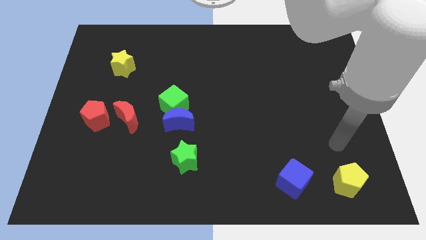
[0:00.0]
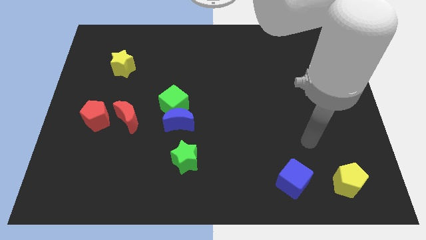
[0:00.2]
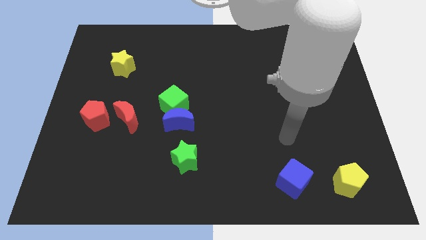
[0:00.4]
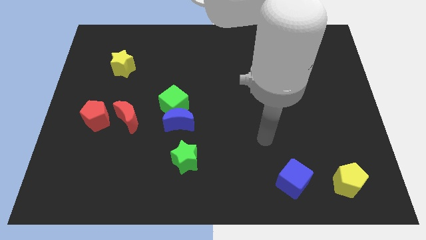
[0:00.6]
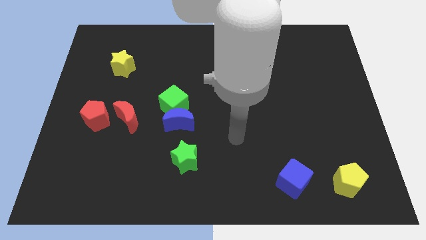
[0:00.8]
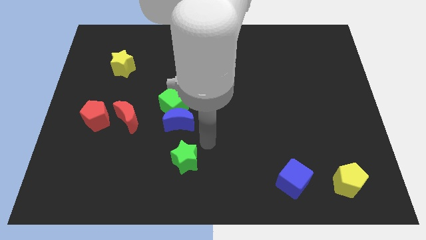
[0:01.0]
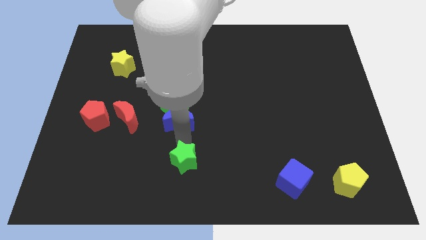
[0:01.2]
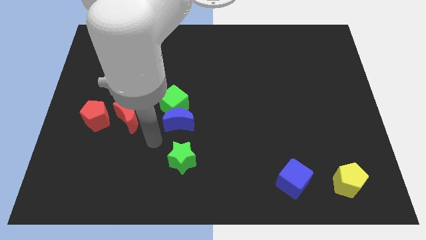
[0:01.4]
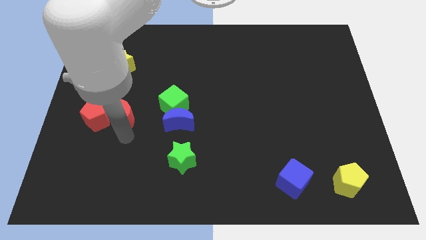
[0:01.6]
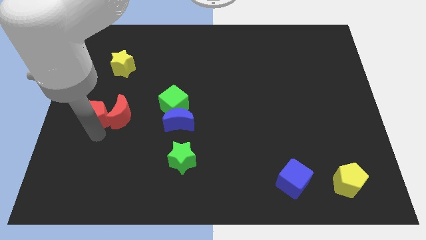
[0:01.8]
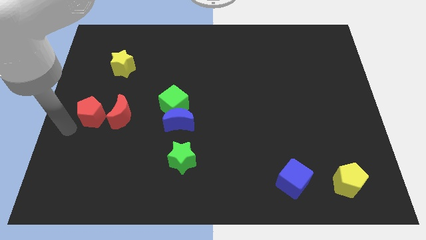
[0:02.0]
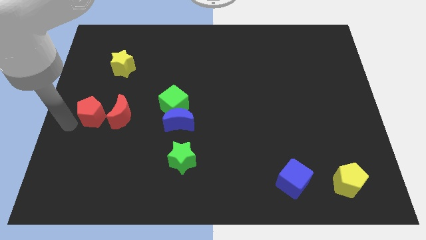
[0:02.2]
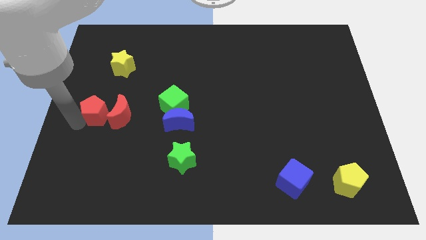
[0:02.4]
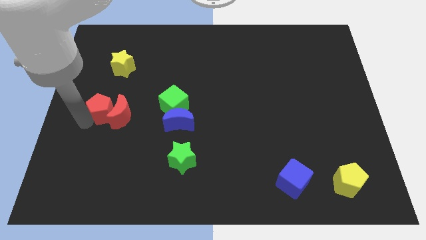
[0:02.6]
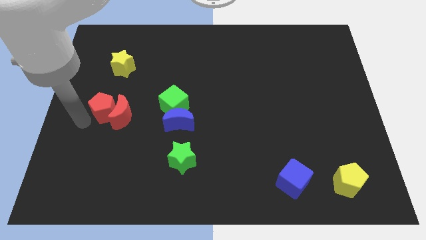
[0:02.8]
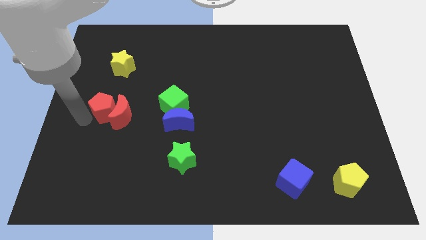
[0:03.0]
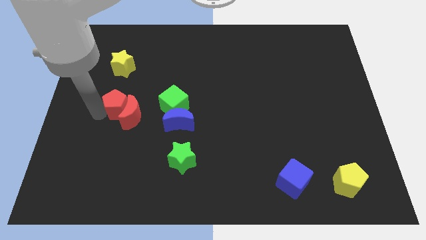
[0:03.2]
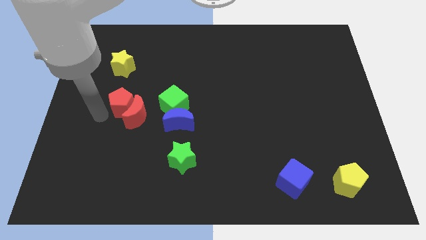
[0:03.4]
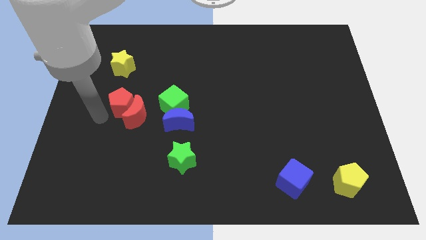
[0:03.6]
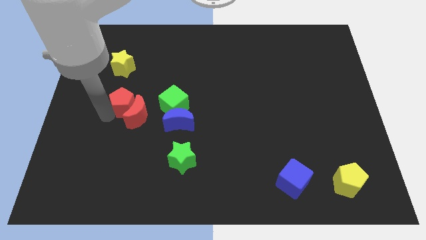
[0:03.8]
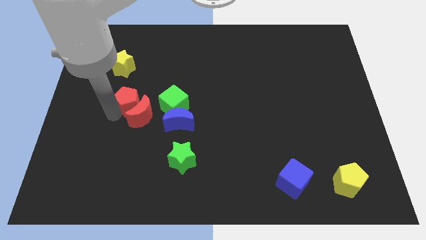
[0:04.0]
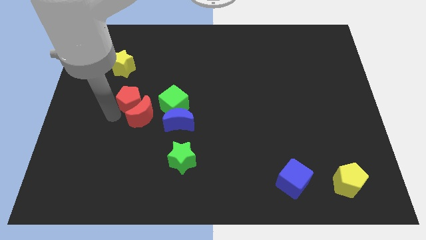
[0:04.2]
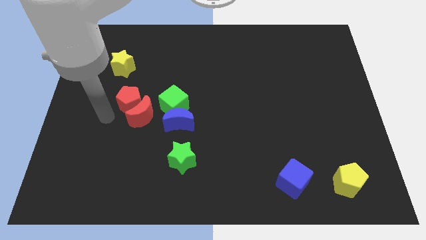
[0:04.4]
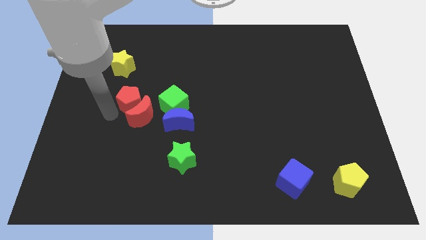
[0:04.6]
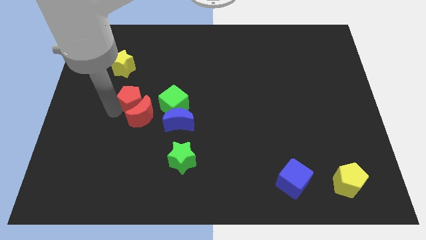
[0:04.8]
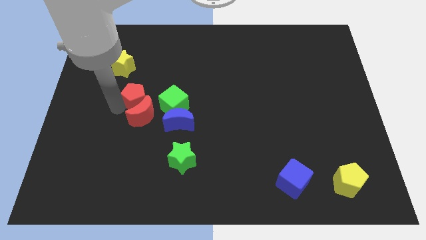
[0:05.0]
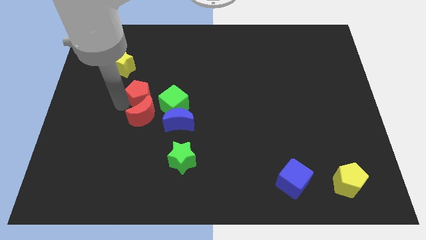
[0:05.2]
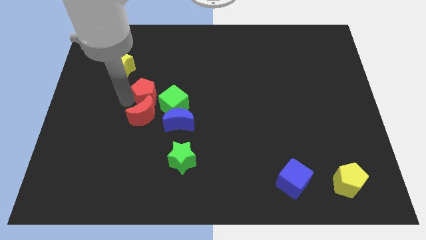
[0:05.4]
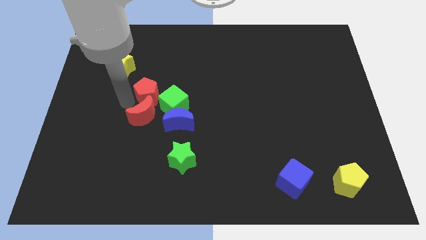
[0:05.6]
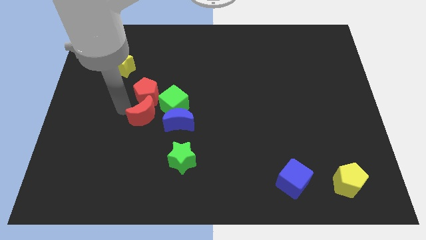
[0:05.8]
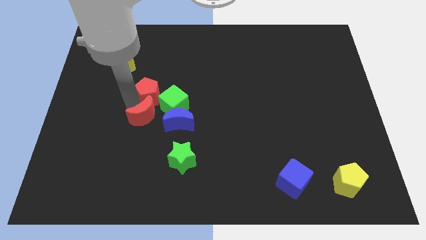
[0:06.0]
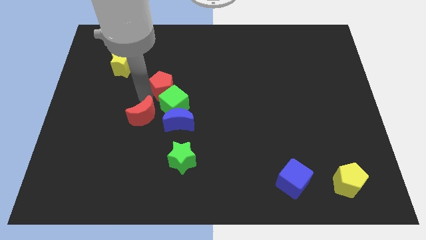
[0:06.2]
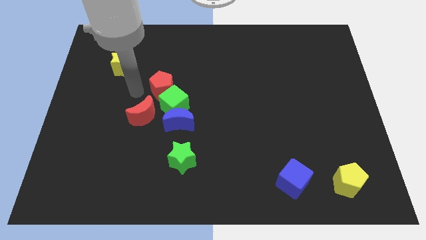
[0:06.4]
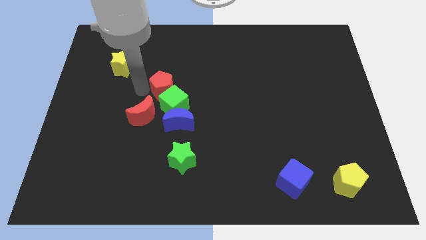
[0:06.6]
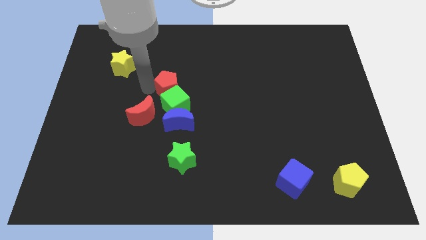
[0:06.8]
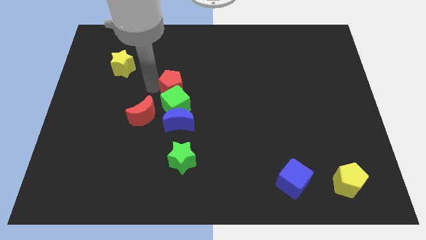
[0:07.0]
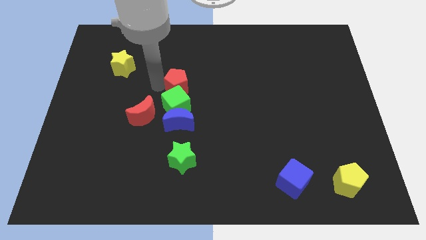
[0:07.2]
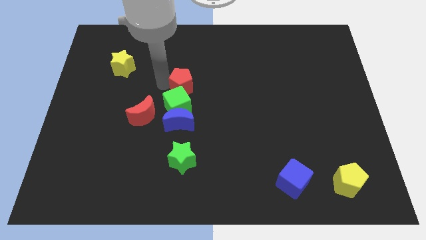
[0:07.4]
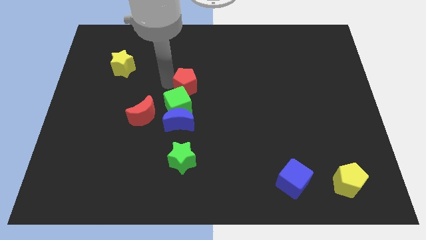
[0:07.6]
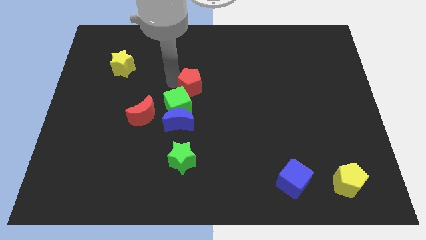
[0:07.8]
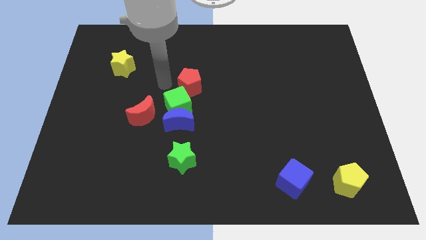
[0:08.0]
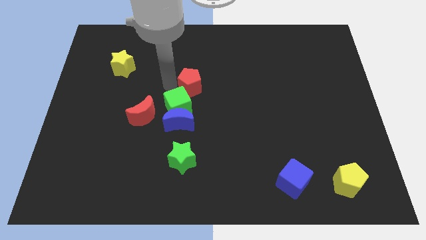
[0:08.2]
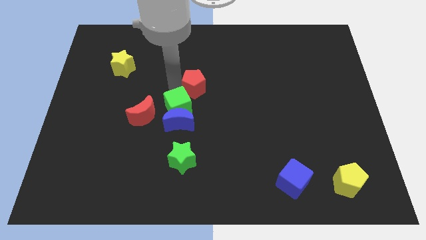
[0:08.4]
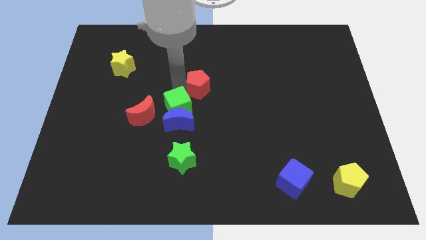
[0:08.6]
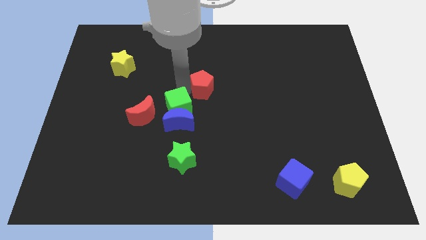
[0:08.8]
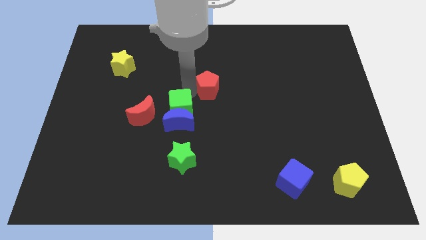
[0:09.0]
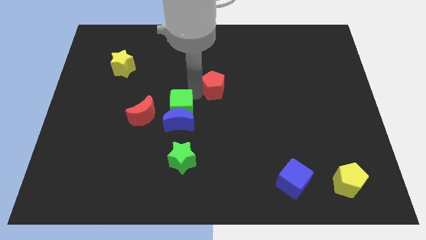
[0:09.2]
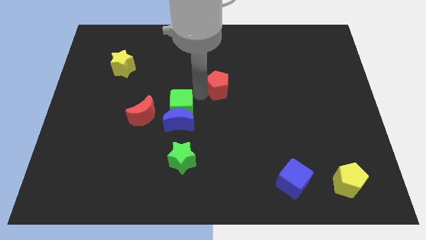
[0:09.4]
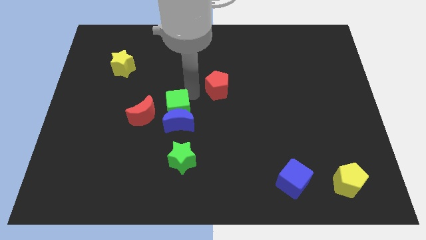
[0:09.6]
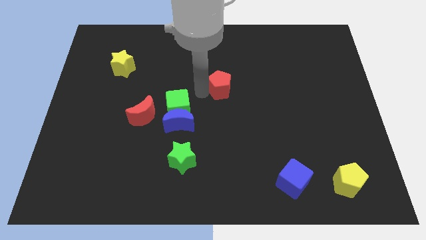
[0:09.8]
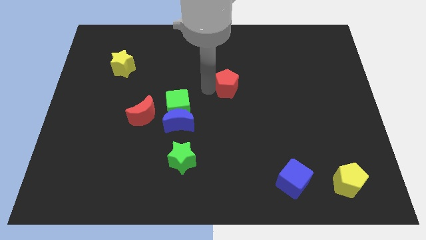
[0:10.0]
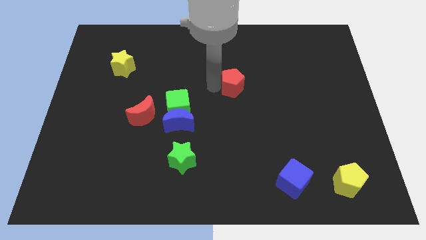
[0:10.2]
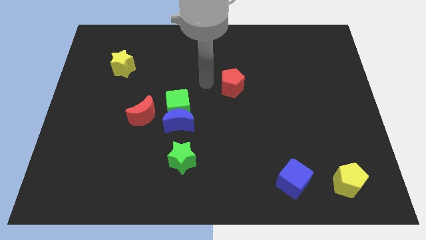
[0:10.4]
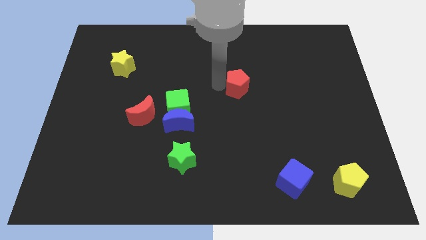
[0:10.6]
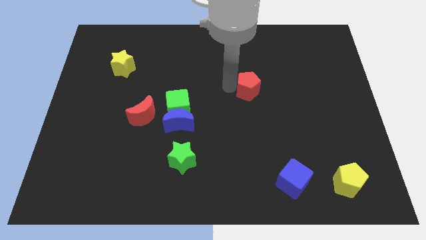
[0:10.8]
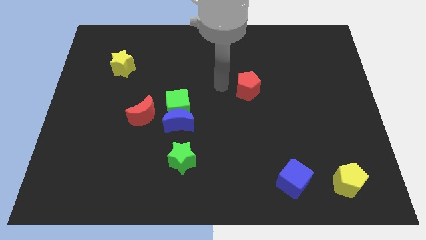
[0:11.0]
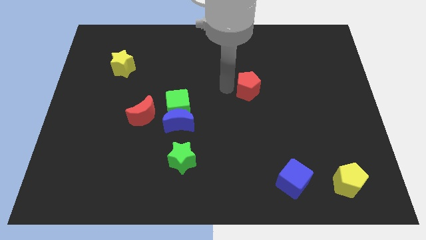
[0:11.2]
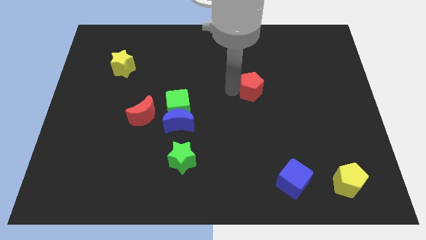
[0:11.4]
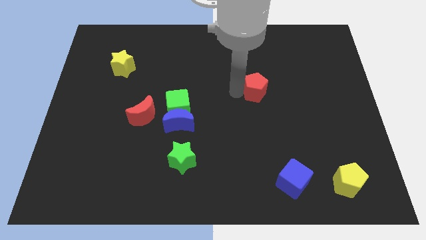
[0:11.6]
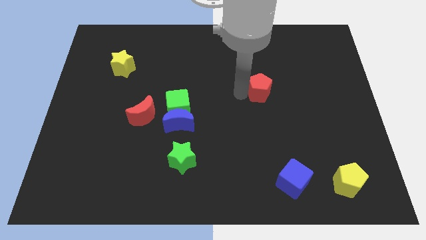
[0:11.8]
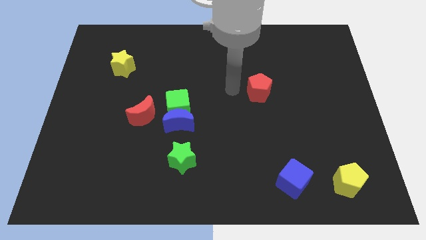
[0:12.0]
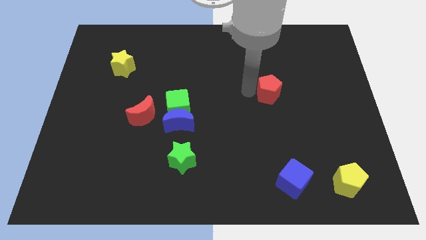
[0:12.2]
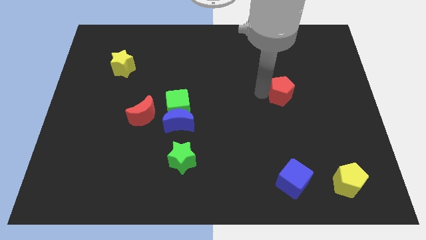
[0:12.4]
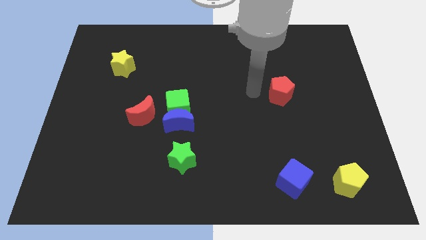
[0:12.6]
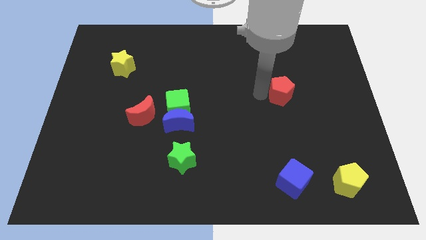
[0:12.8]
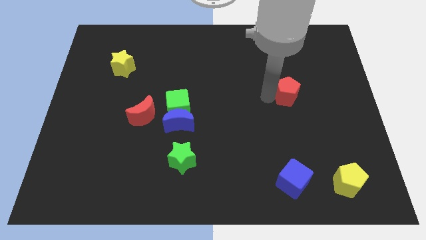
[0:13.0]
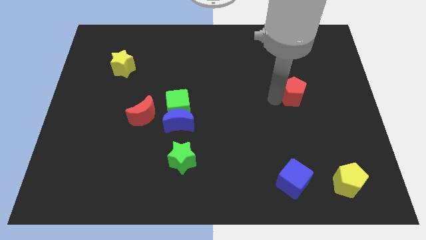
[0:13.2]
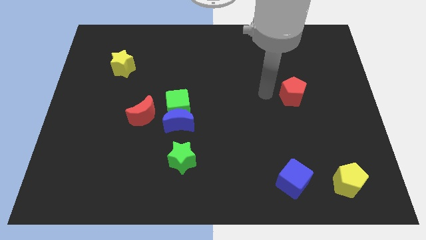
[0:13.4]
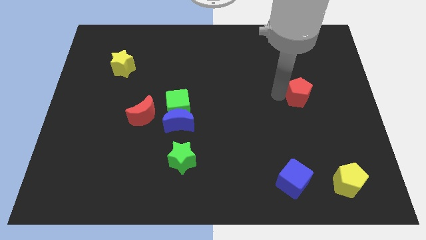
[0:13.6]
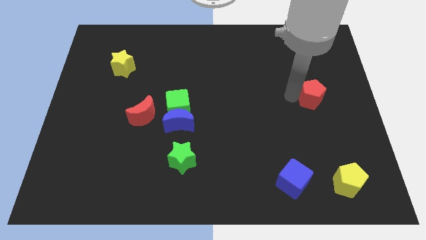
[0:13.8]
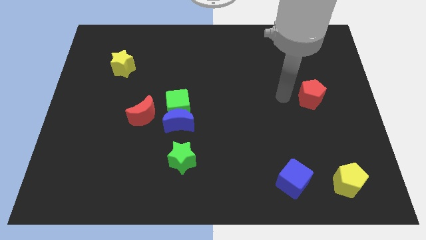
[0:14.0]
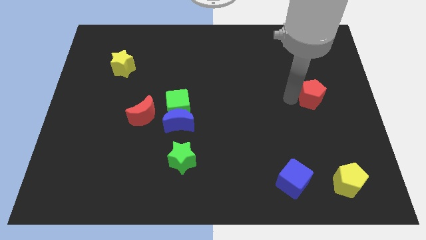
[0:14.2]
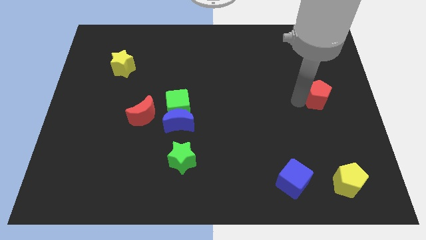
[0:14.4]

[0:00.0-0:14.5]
push the red pentagon to the right side of the board
